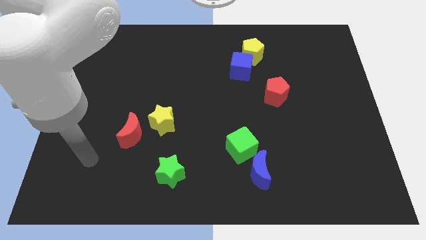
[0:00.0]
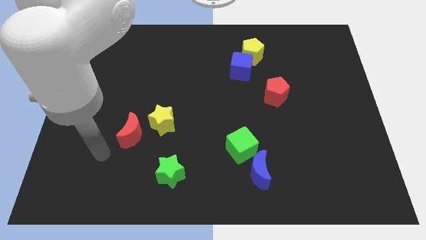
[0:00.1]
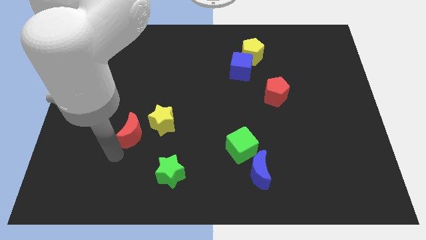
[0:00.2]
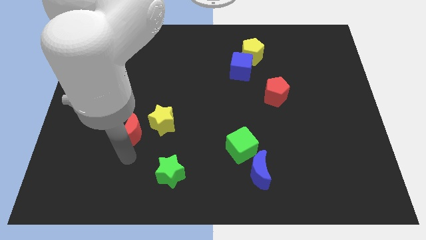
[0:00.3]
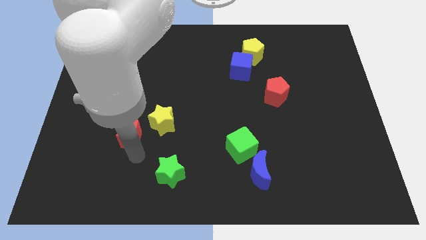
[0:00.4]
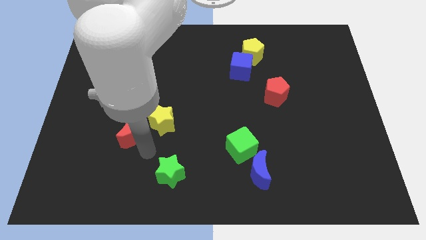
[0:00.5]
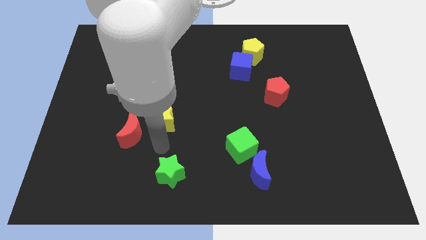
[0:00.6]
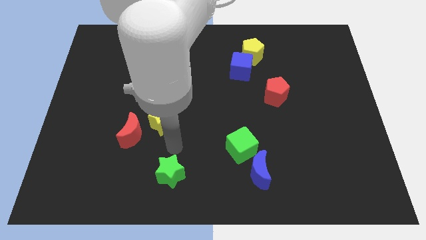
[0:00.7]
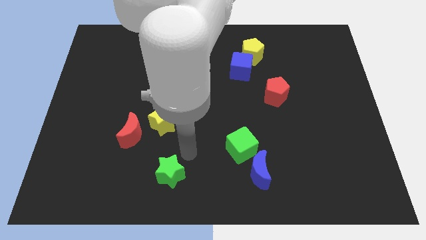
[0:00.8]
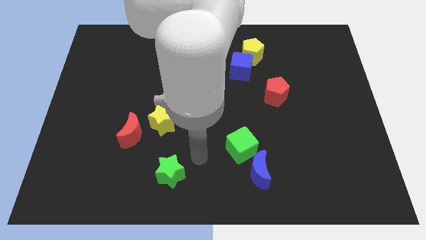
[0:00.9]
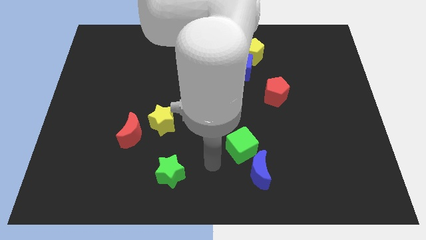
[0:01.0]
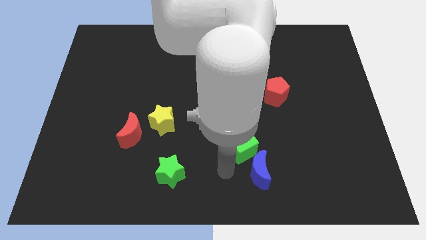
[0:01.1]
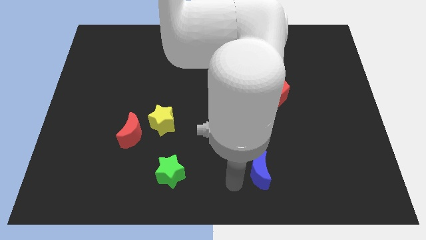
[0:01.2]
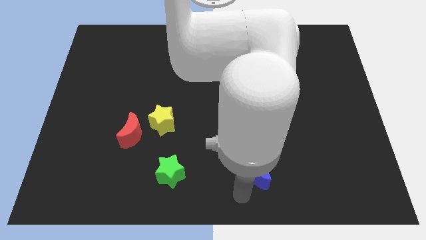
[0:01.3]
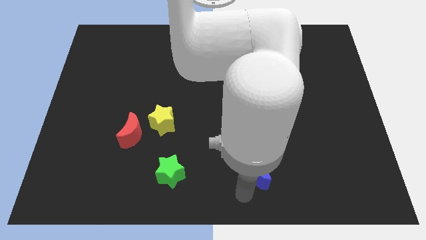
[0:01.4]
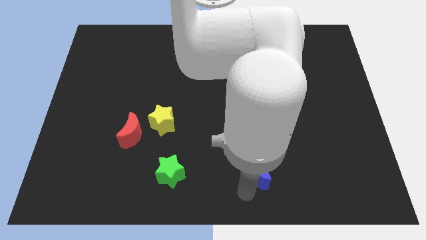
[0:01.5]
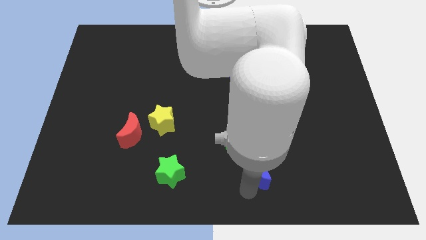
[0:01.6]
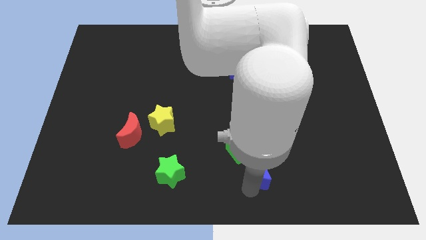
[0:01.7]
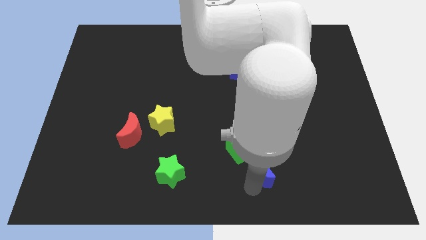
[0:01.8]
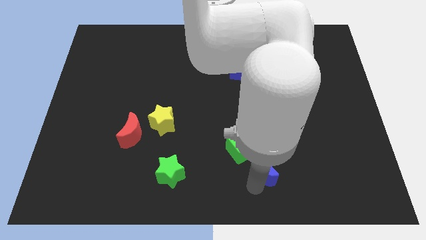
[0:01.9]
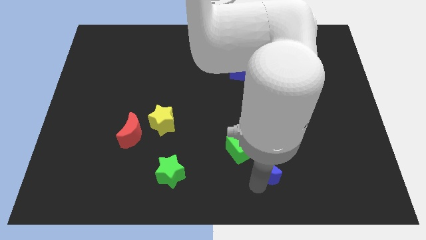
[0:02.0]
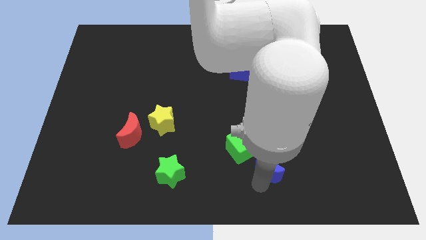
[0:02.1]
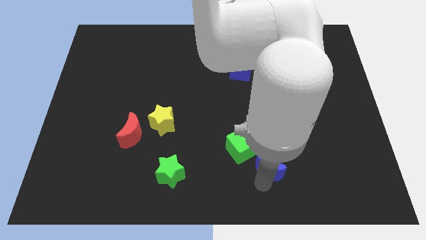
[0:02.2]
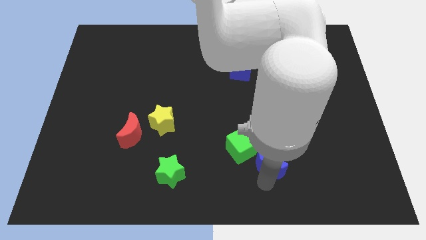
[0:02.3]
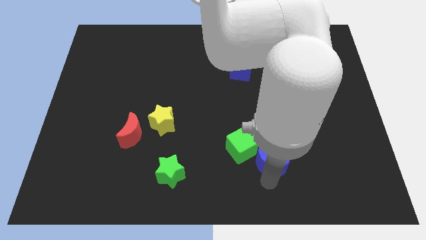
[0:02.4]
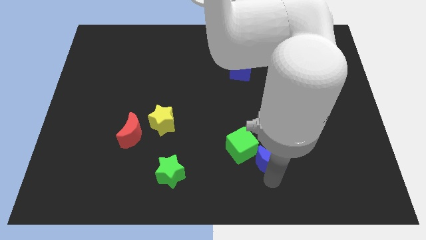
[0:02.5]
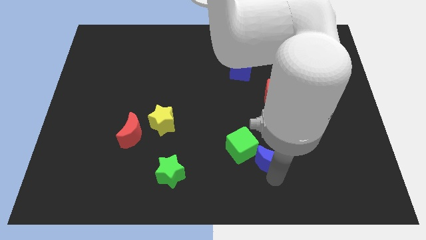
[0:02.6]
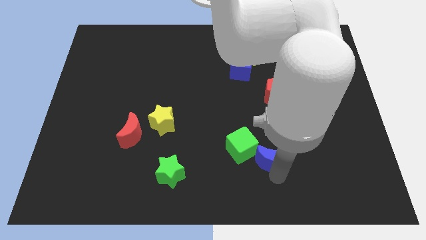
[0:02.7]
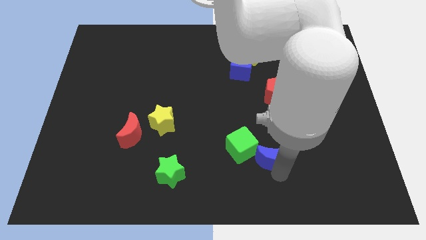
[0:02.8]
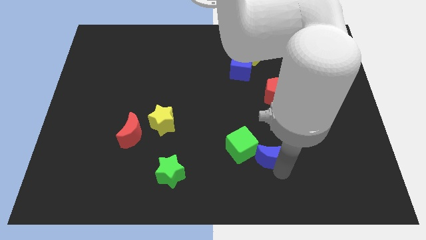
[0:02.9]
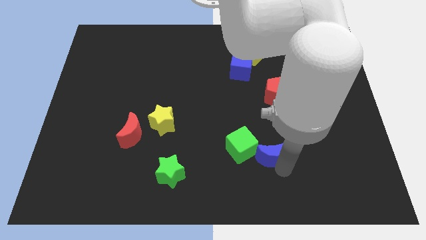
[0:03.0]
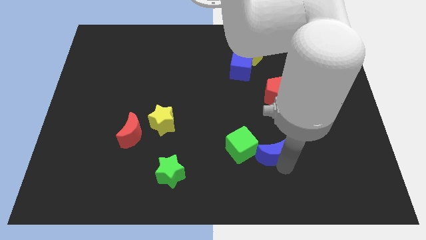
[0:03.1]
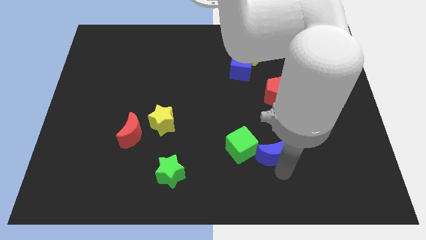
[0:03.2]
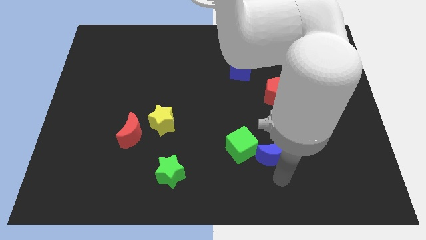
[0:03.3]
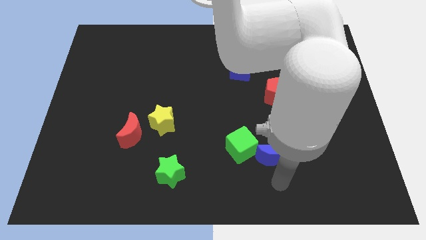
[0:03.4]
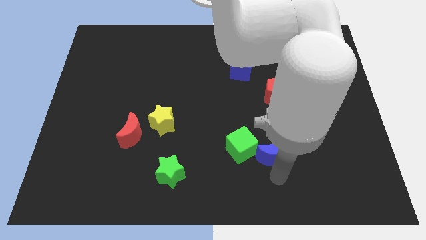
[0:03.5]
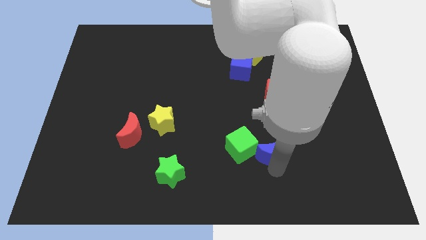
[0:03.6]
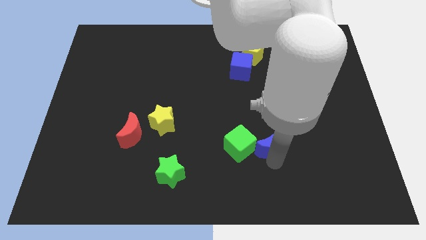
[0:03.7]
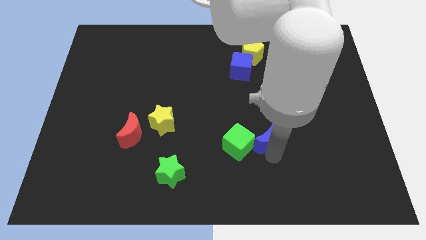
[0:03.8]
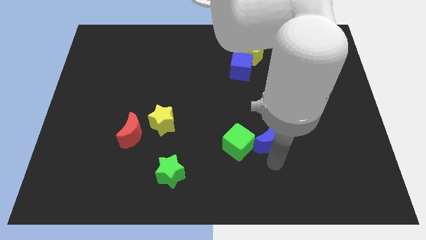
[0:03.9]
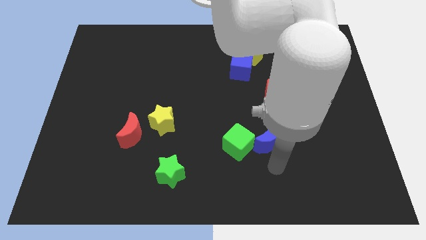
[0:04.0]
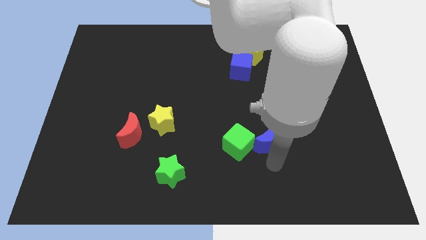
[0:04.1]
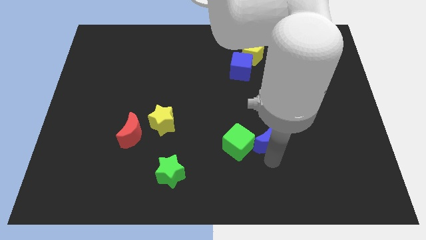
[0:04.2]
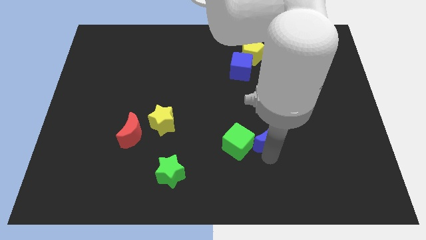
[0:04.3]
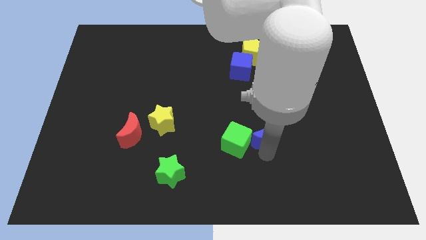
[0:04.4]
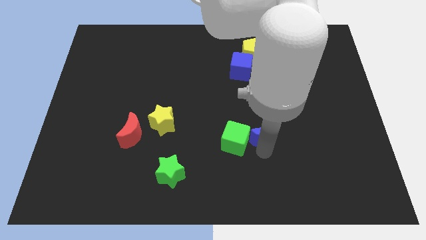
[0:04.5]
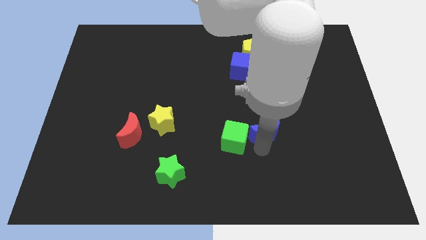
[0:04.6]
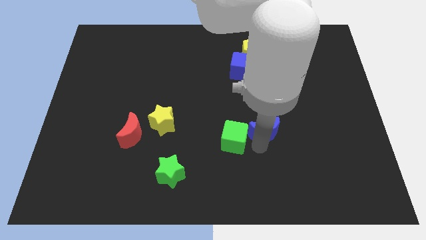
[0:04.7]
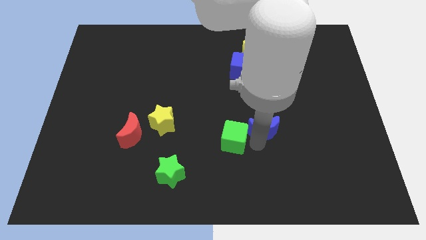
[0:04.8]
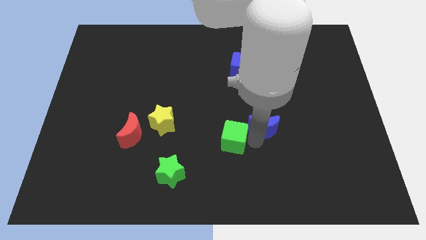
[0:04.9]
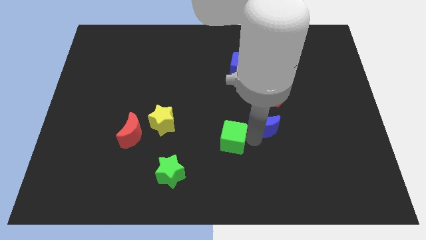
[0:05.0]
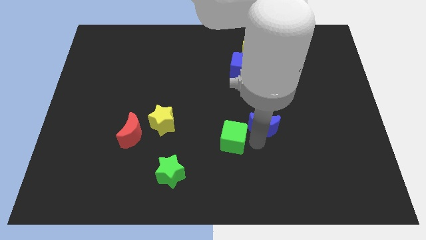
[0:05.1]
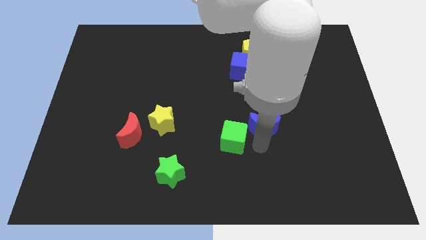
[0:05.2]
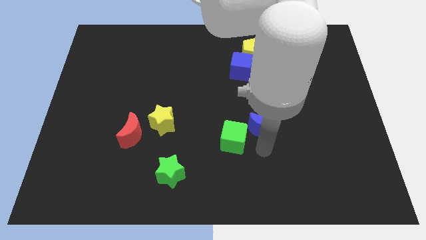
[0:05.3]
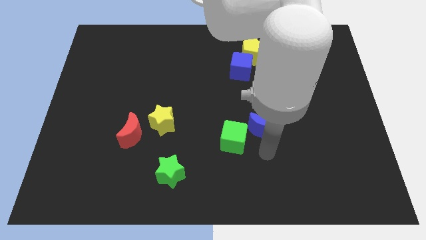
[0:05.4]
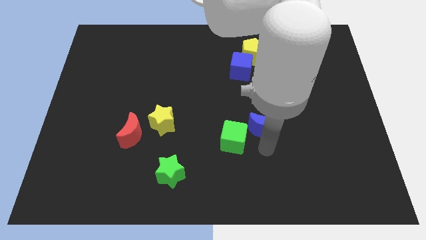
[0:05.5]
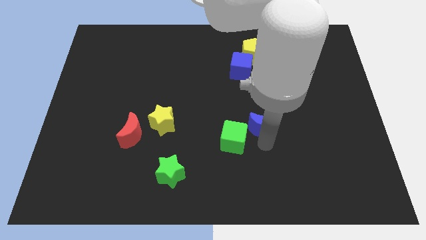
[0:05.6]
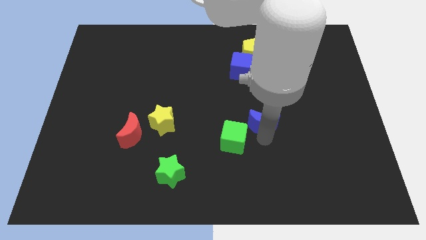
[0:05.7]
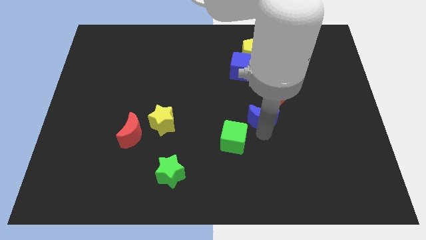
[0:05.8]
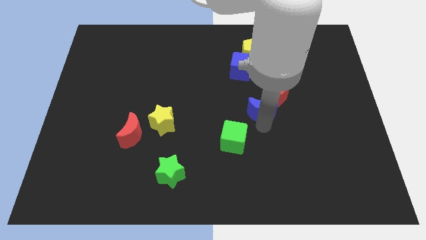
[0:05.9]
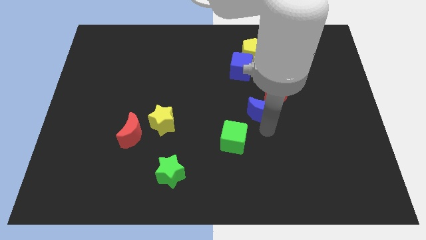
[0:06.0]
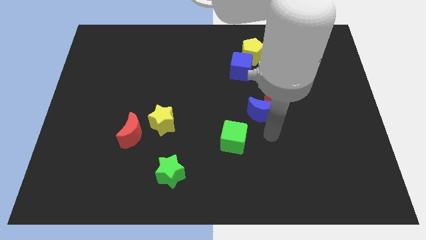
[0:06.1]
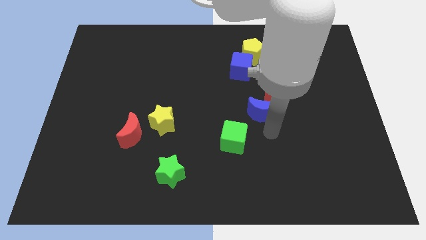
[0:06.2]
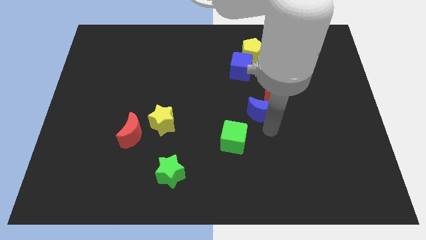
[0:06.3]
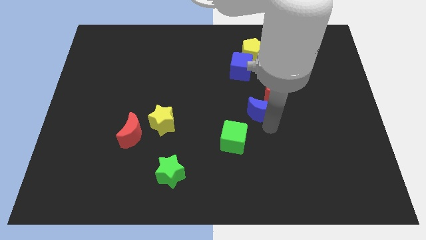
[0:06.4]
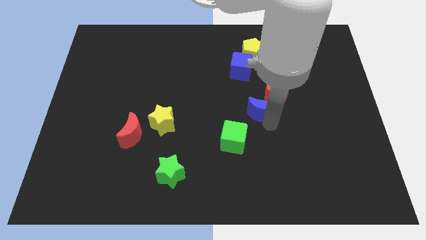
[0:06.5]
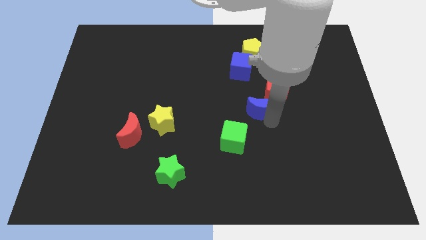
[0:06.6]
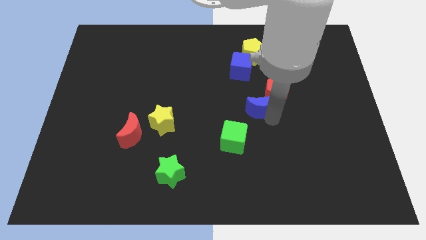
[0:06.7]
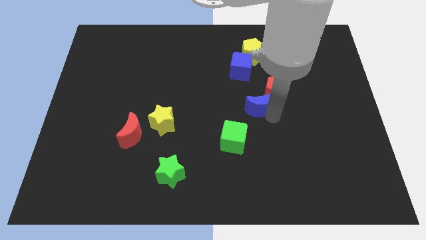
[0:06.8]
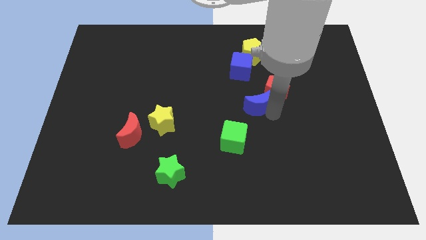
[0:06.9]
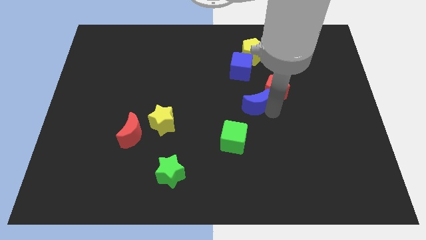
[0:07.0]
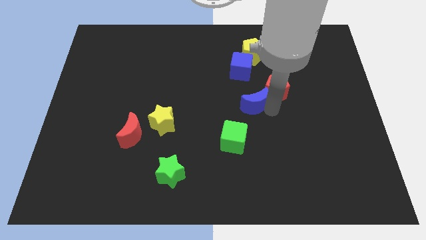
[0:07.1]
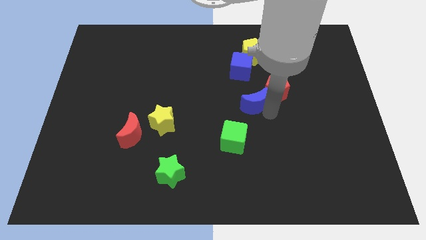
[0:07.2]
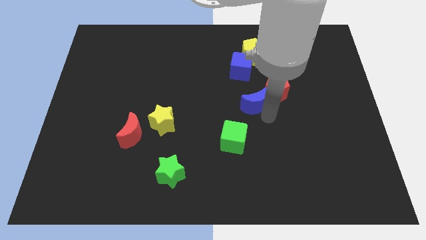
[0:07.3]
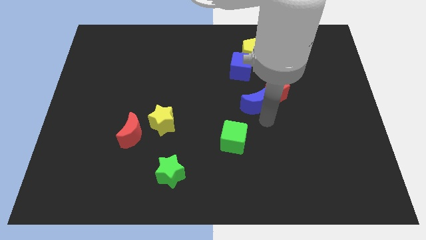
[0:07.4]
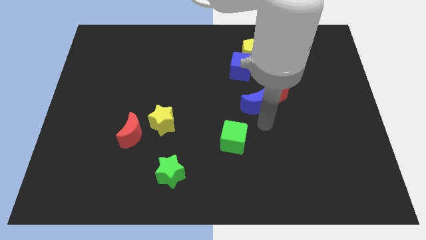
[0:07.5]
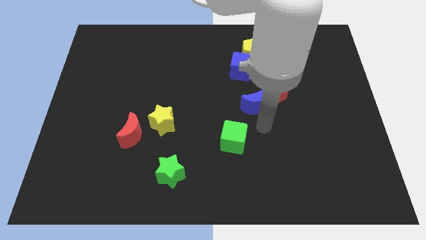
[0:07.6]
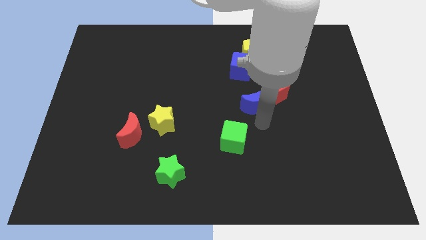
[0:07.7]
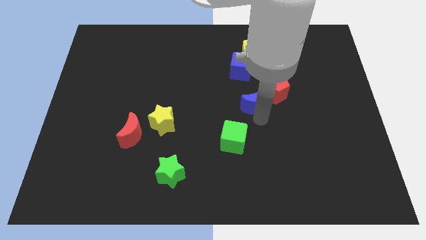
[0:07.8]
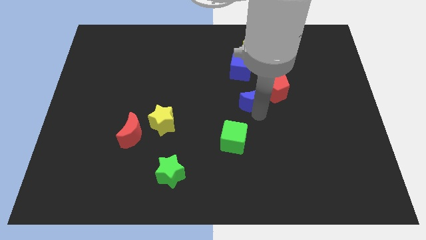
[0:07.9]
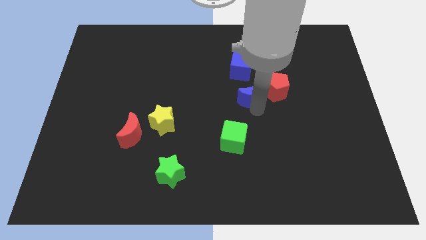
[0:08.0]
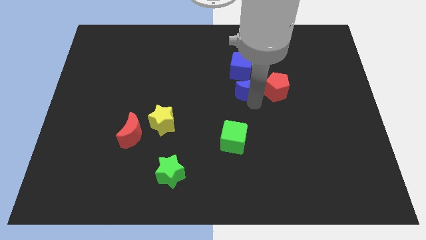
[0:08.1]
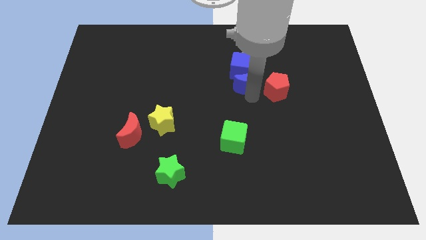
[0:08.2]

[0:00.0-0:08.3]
move the blue moon to the blue cube

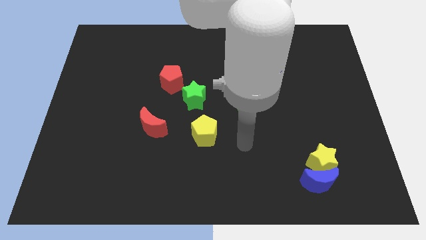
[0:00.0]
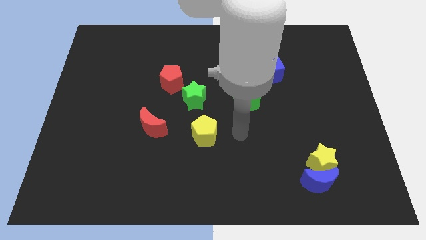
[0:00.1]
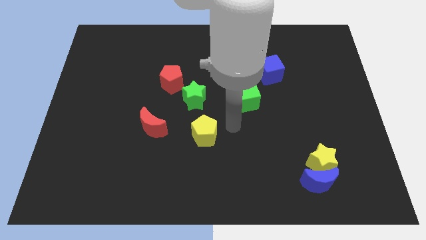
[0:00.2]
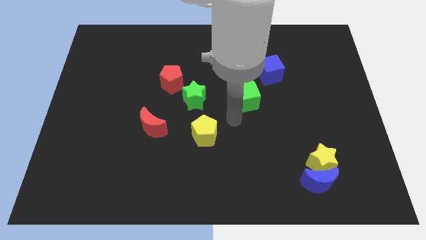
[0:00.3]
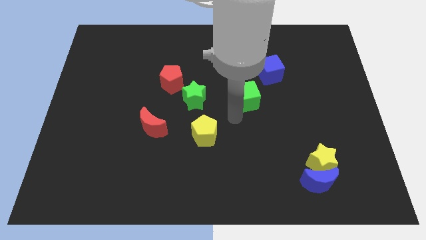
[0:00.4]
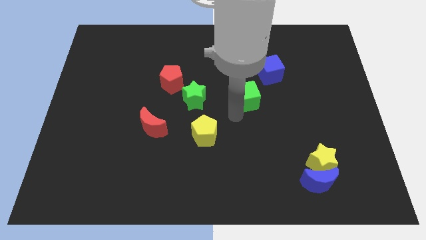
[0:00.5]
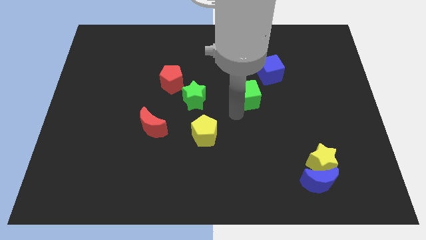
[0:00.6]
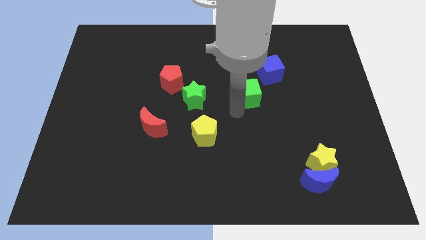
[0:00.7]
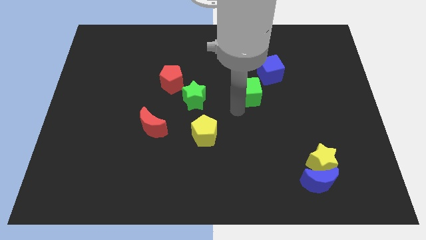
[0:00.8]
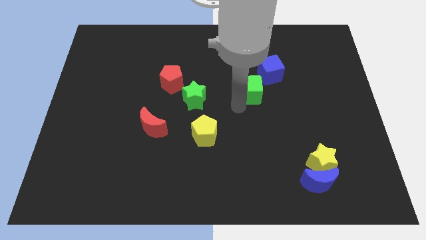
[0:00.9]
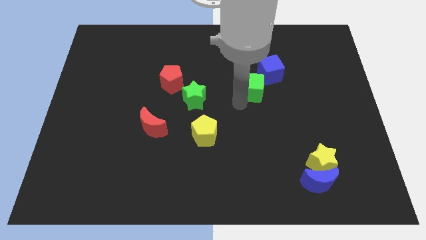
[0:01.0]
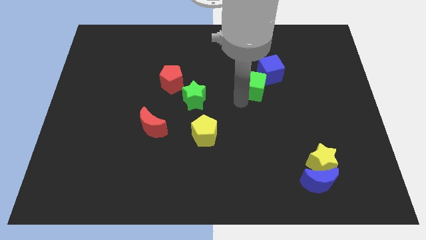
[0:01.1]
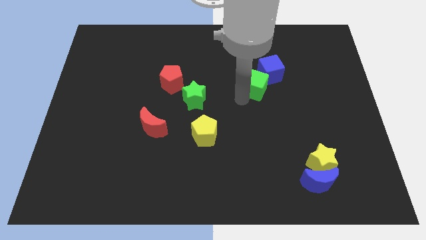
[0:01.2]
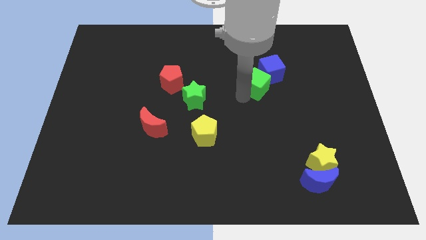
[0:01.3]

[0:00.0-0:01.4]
slide the green cube to the blue cube
